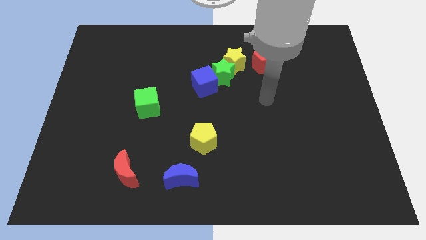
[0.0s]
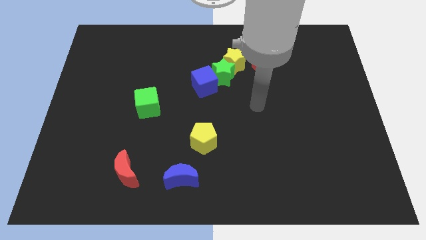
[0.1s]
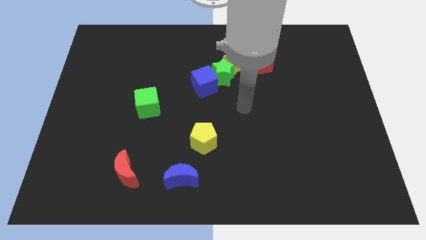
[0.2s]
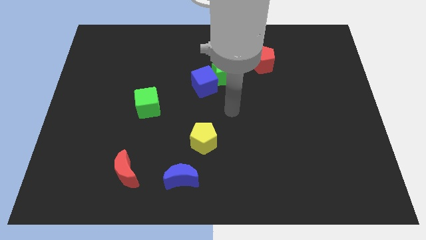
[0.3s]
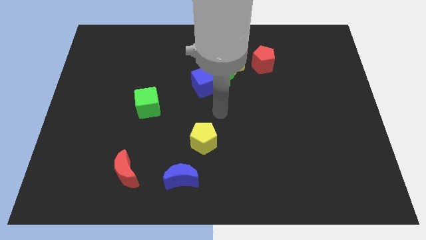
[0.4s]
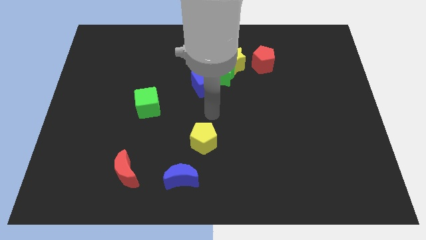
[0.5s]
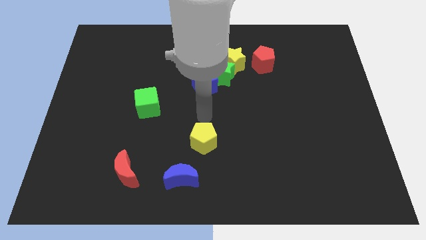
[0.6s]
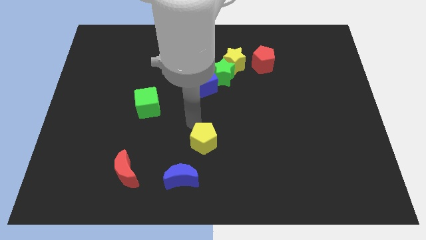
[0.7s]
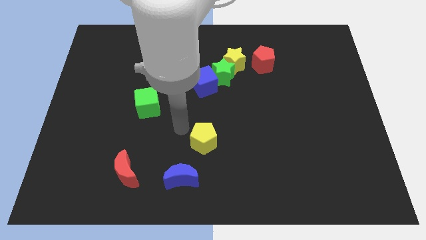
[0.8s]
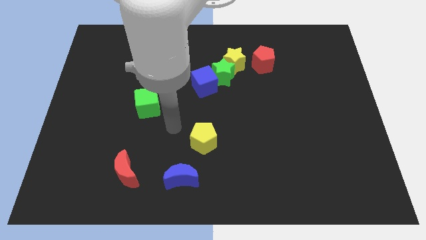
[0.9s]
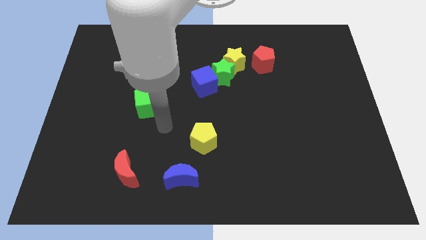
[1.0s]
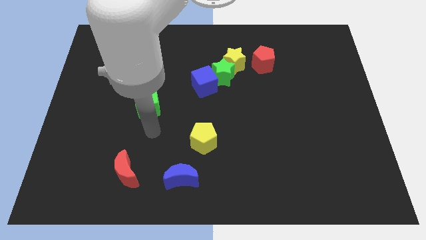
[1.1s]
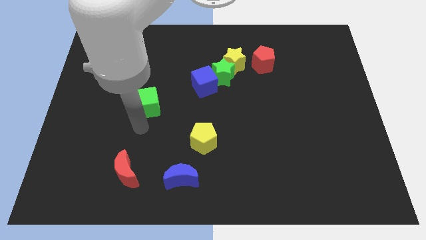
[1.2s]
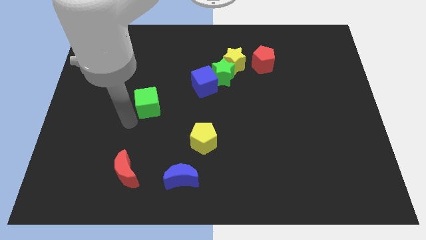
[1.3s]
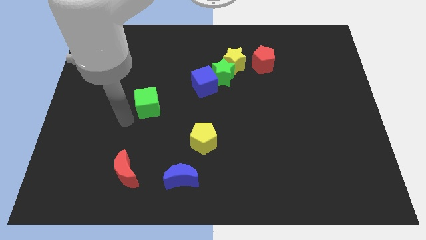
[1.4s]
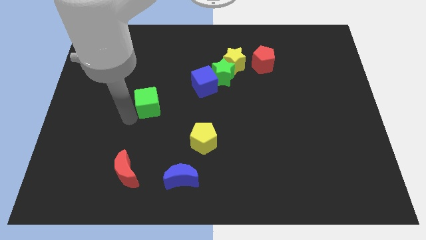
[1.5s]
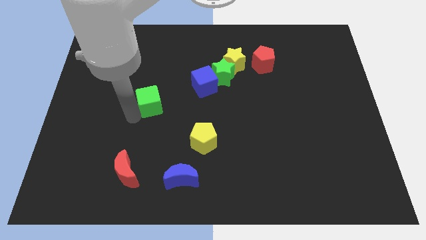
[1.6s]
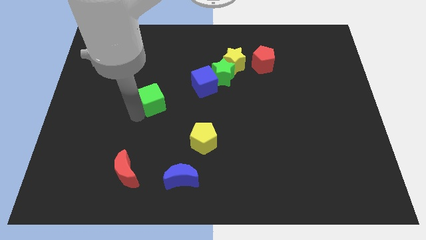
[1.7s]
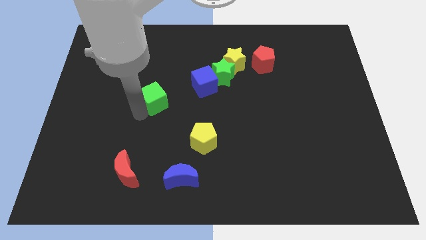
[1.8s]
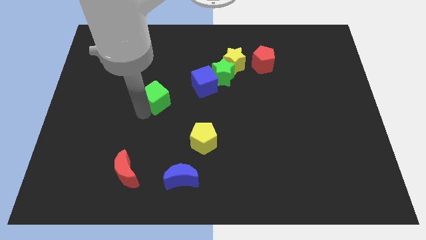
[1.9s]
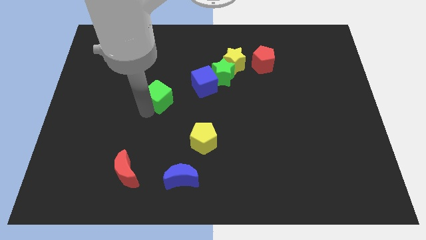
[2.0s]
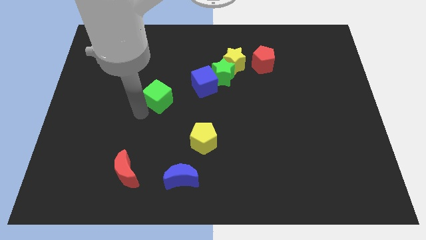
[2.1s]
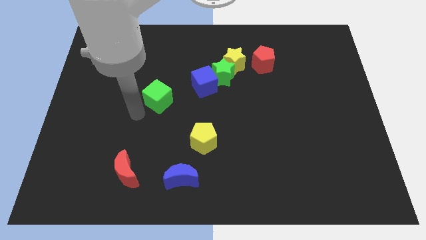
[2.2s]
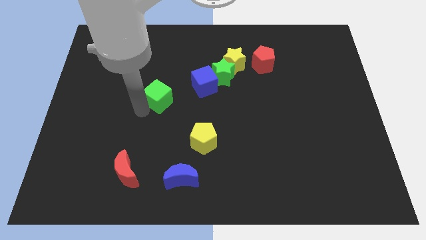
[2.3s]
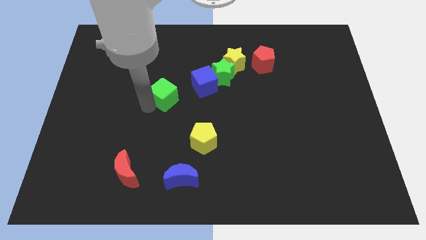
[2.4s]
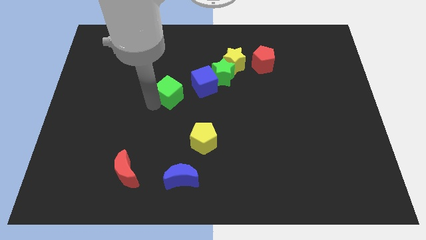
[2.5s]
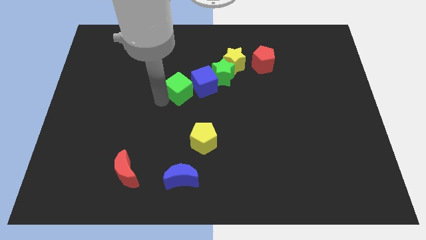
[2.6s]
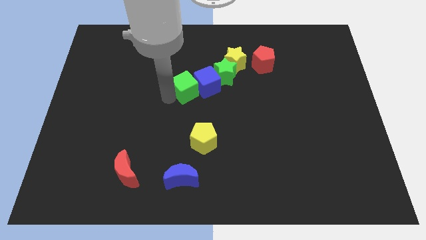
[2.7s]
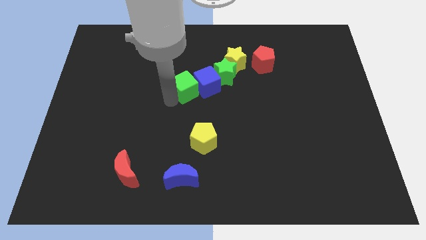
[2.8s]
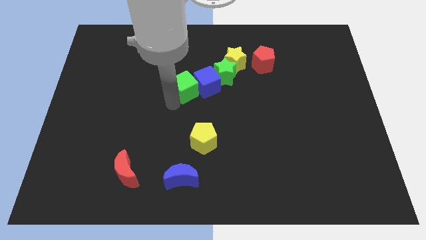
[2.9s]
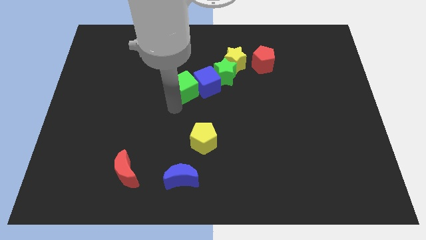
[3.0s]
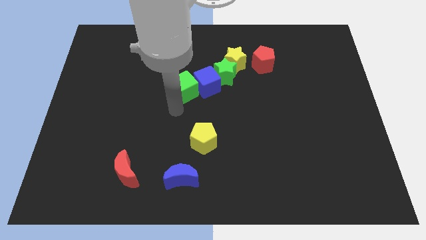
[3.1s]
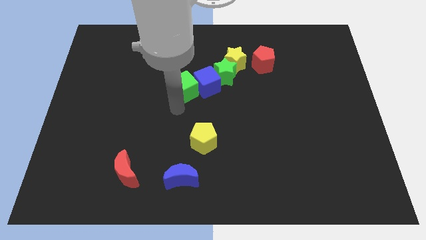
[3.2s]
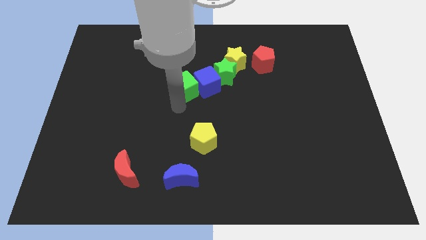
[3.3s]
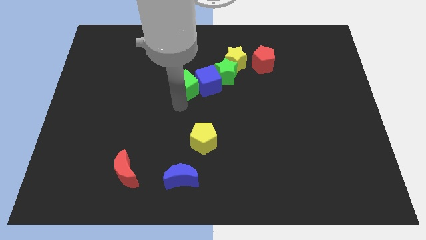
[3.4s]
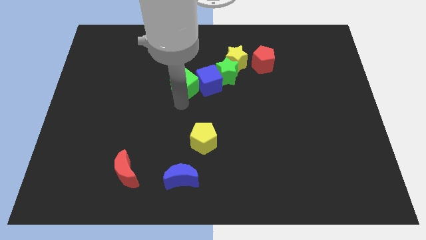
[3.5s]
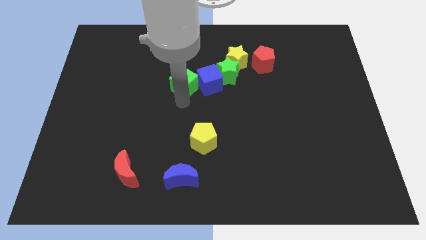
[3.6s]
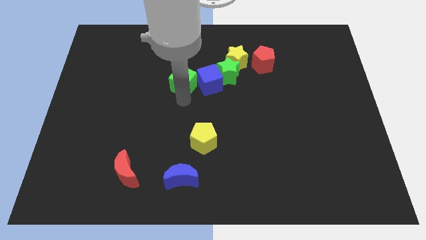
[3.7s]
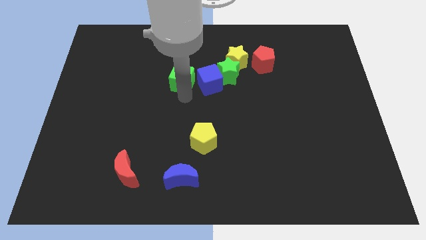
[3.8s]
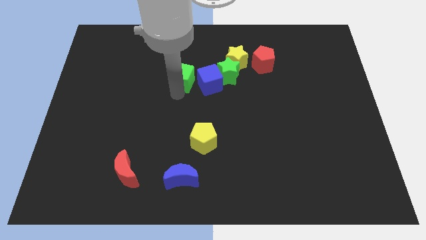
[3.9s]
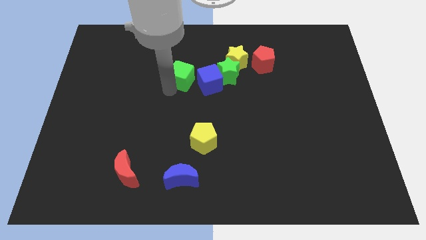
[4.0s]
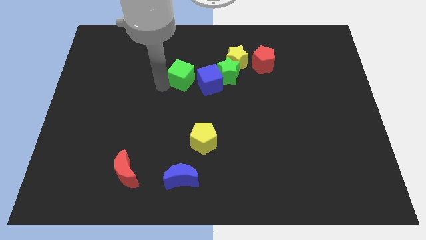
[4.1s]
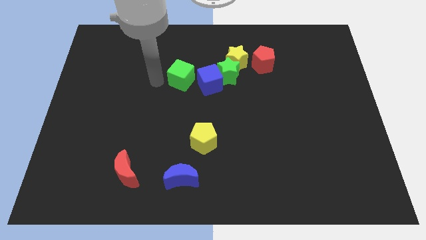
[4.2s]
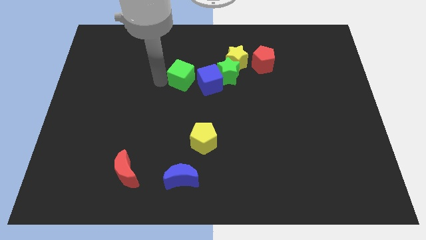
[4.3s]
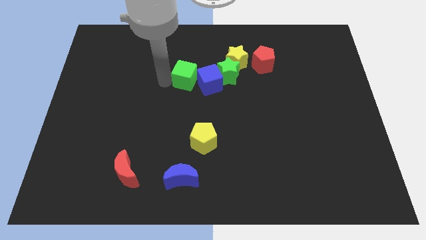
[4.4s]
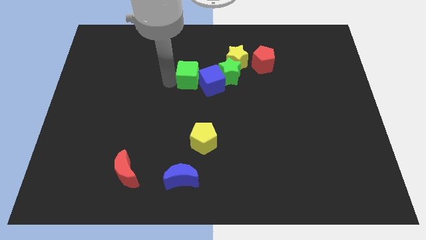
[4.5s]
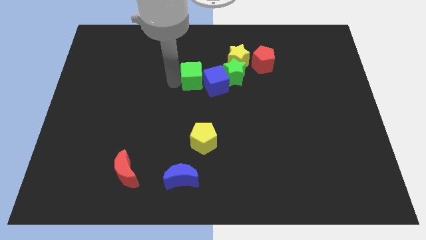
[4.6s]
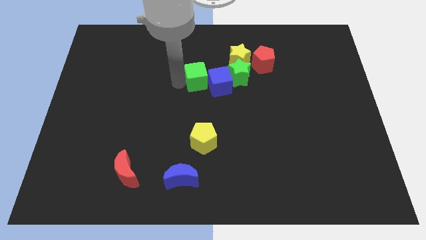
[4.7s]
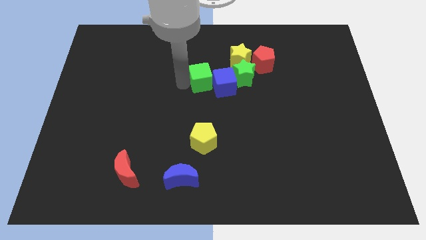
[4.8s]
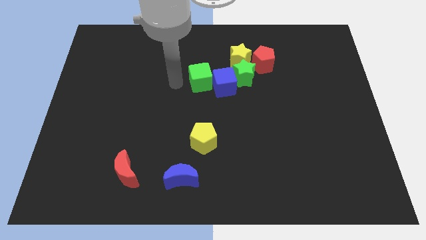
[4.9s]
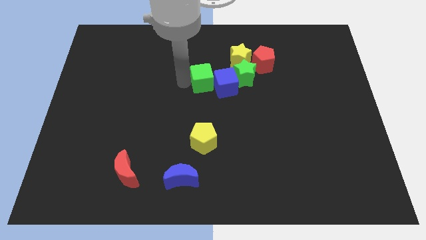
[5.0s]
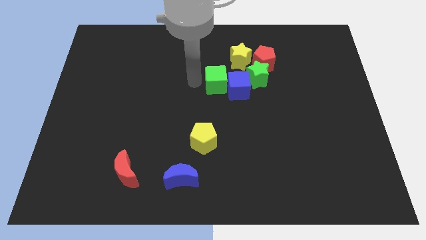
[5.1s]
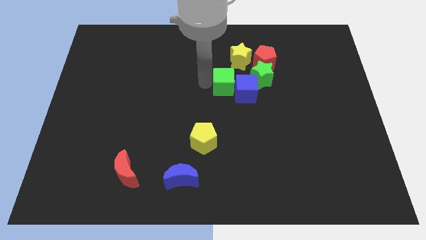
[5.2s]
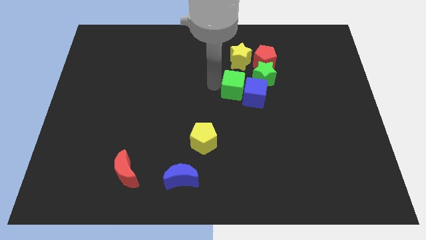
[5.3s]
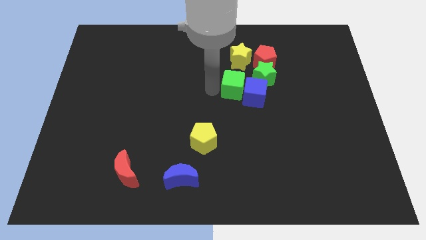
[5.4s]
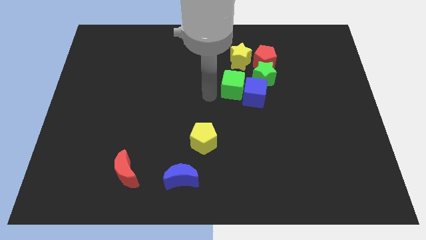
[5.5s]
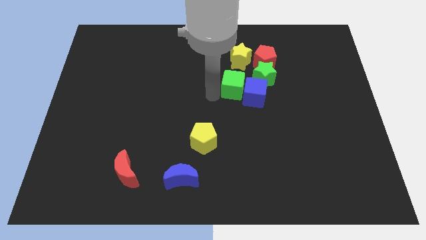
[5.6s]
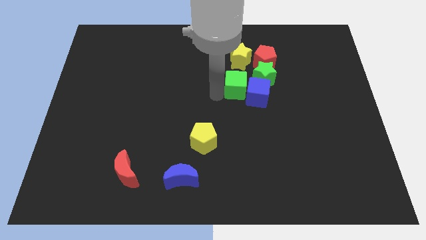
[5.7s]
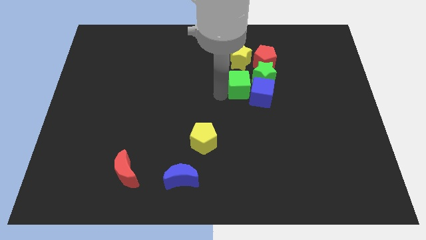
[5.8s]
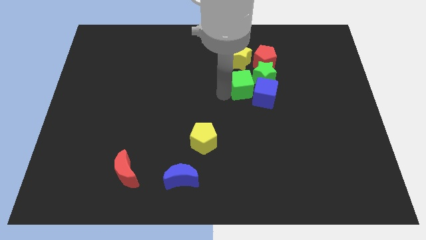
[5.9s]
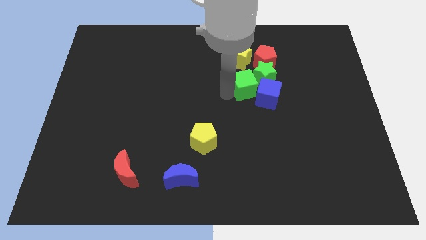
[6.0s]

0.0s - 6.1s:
slide the green cube next to the green star
